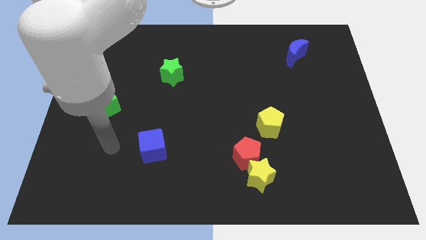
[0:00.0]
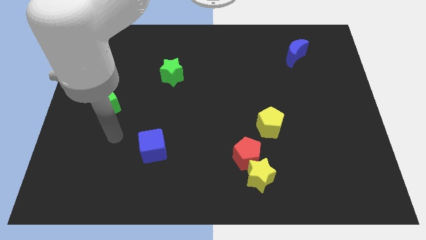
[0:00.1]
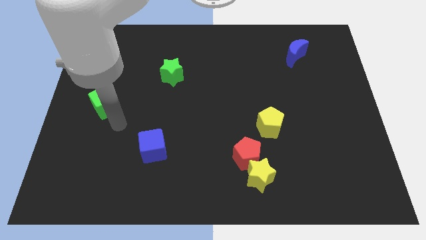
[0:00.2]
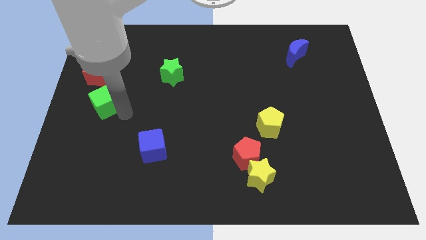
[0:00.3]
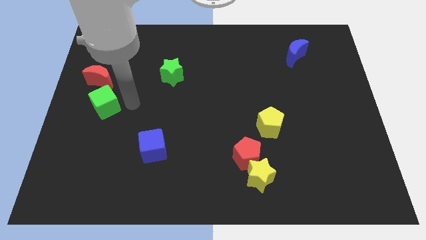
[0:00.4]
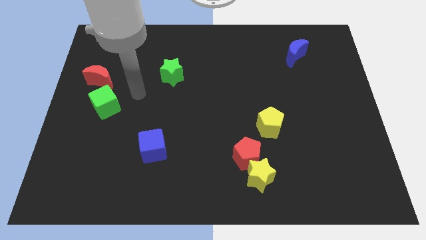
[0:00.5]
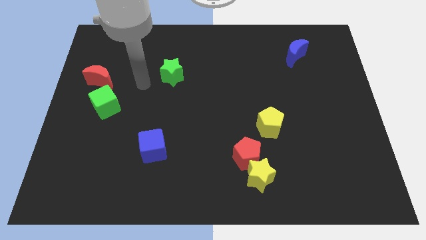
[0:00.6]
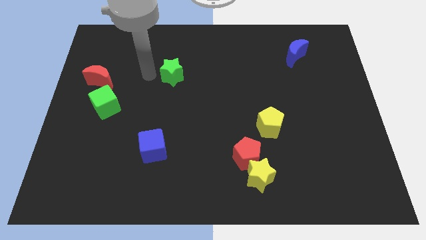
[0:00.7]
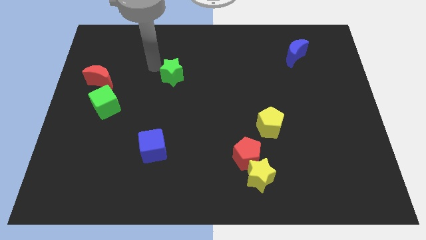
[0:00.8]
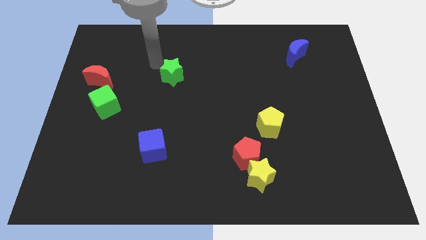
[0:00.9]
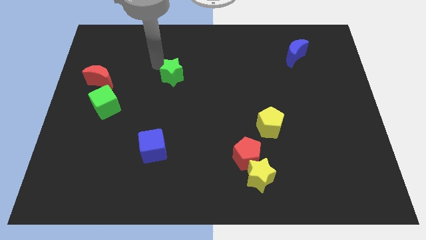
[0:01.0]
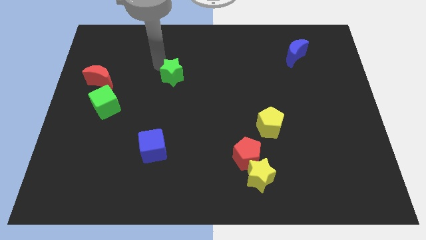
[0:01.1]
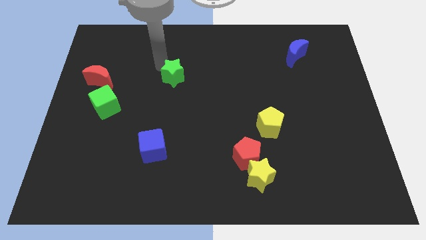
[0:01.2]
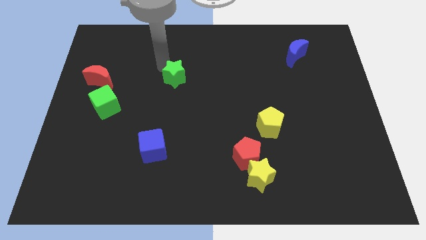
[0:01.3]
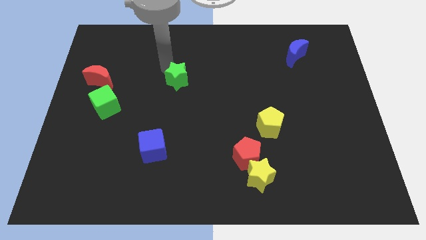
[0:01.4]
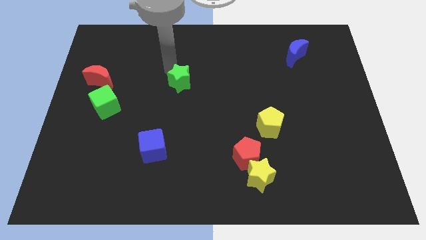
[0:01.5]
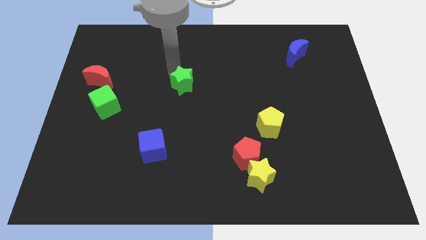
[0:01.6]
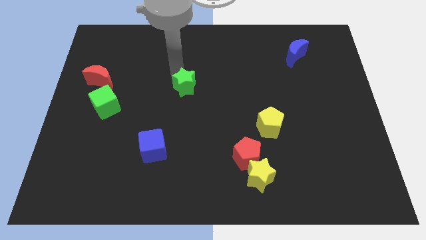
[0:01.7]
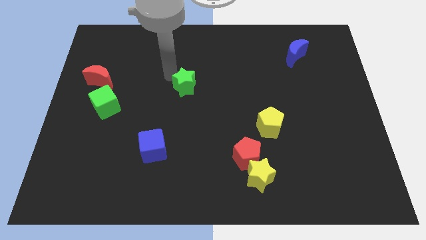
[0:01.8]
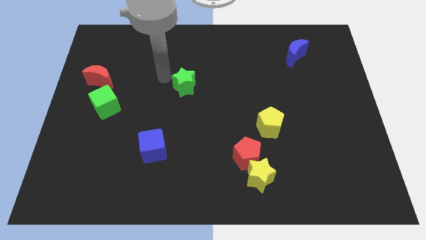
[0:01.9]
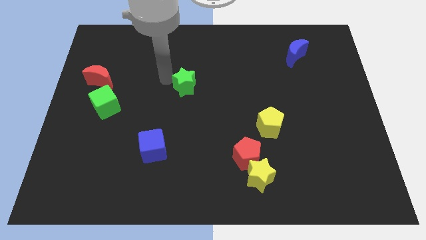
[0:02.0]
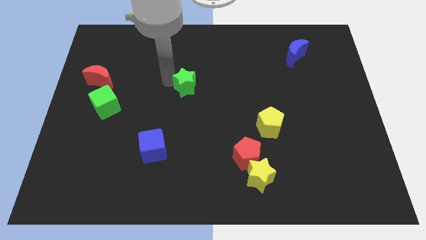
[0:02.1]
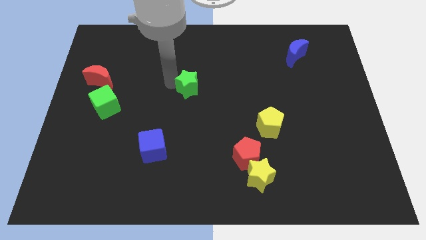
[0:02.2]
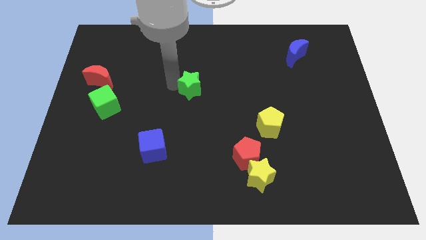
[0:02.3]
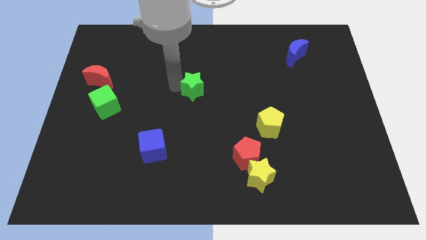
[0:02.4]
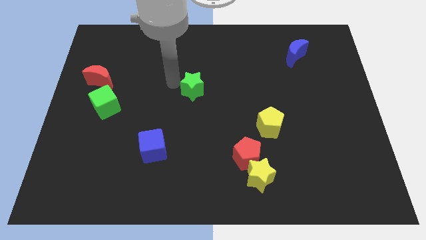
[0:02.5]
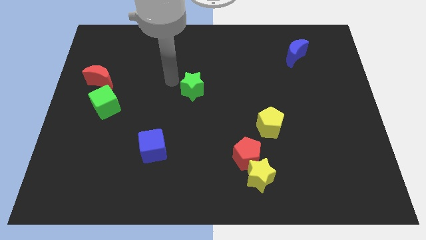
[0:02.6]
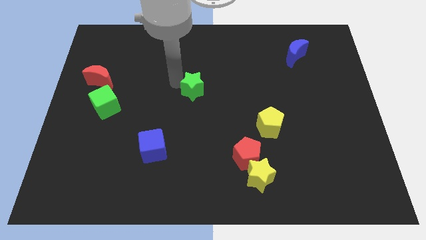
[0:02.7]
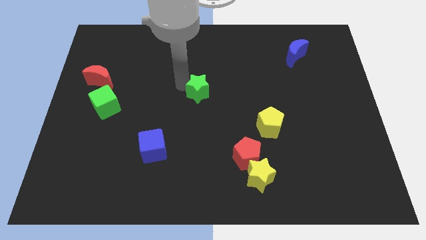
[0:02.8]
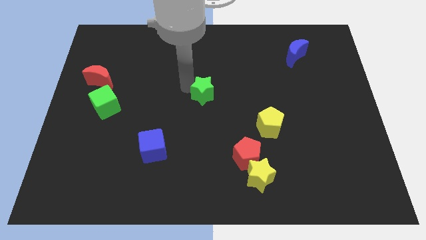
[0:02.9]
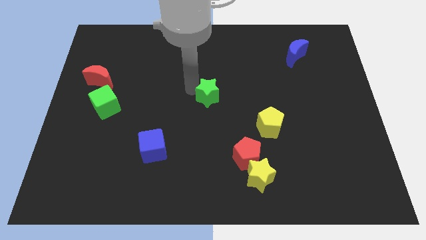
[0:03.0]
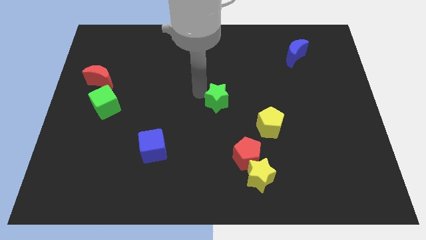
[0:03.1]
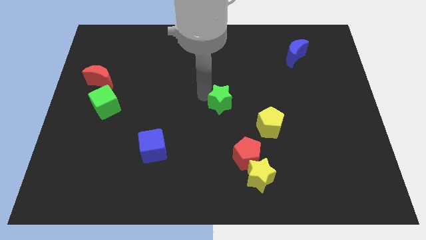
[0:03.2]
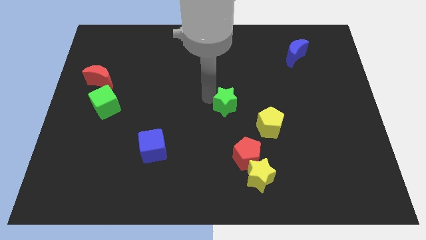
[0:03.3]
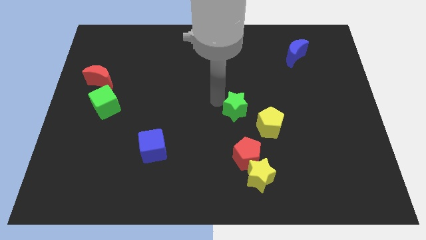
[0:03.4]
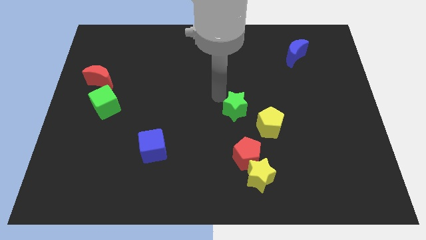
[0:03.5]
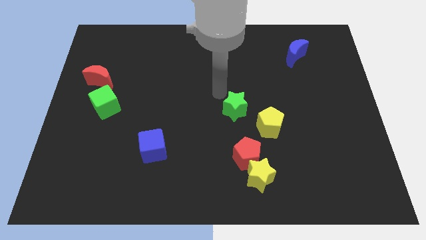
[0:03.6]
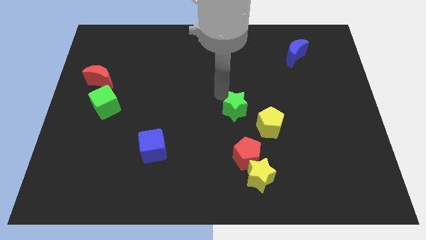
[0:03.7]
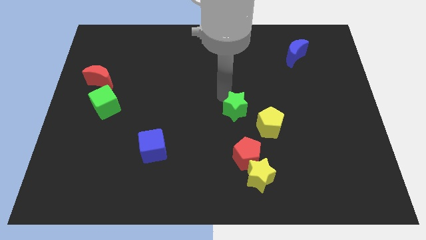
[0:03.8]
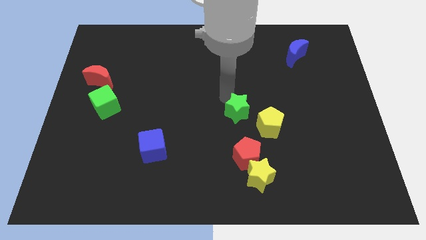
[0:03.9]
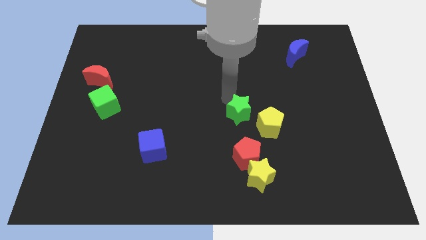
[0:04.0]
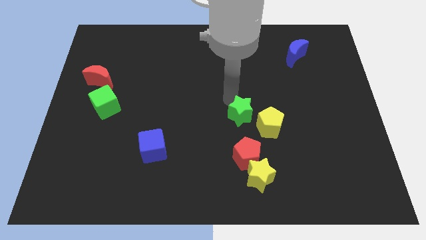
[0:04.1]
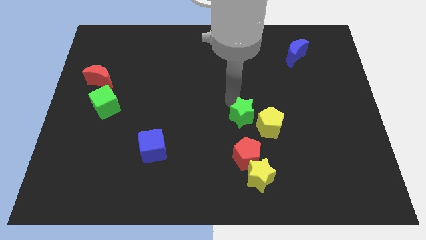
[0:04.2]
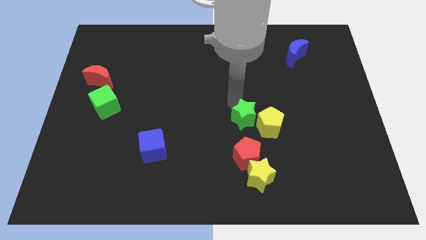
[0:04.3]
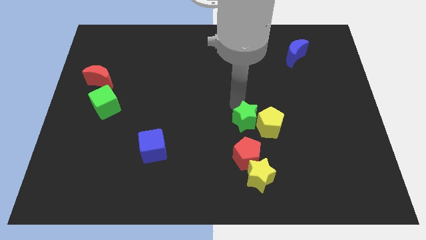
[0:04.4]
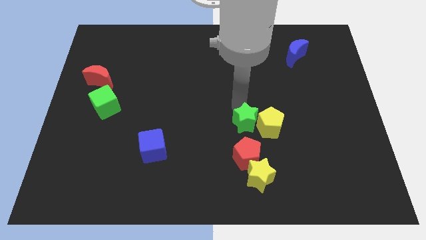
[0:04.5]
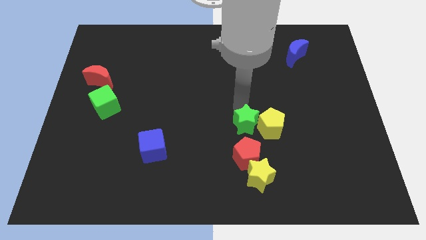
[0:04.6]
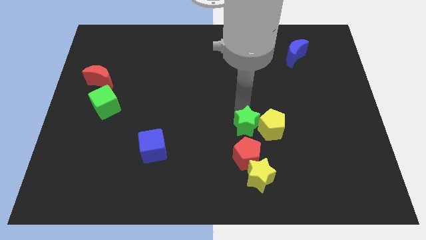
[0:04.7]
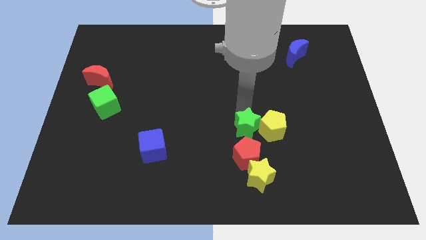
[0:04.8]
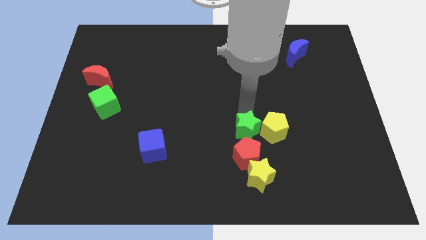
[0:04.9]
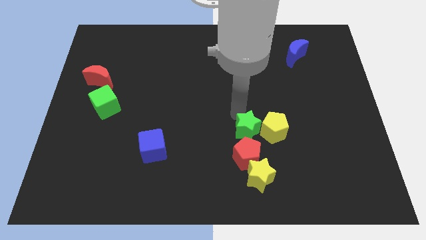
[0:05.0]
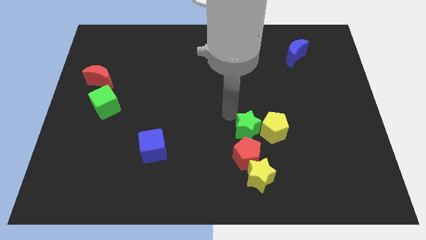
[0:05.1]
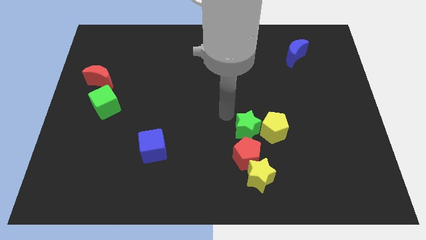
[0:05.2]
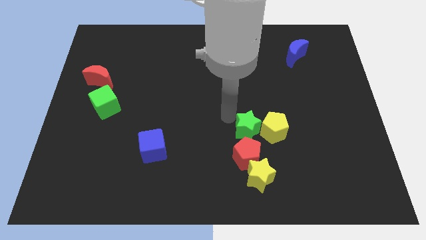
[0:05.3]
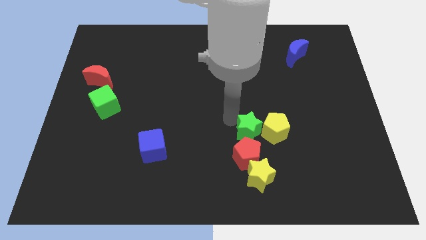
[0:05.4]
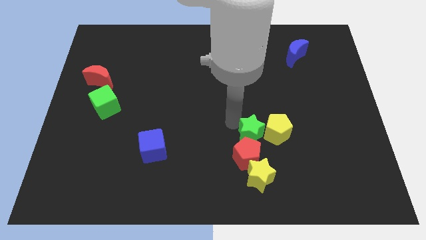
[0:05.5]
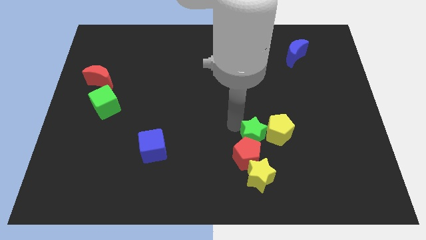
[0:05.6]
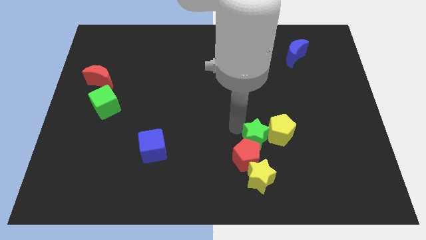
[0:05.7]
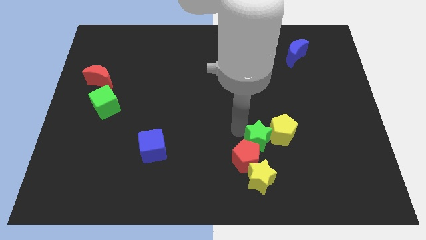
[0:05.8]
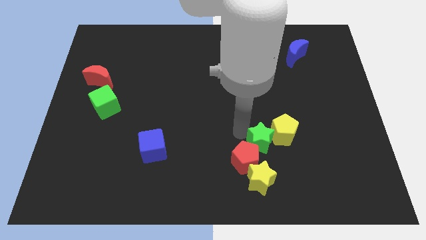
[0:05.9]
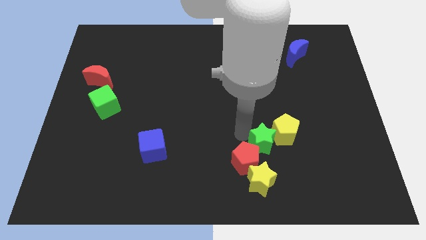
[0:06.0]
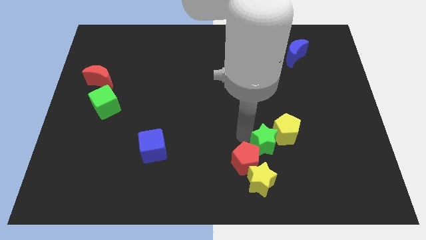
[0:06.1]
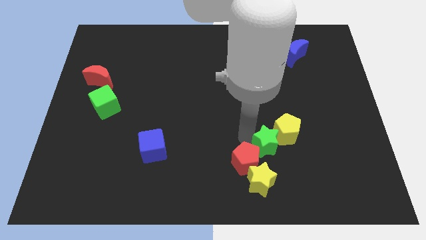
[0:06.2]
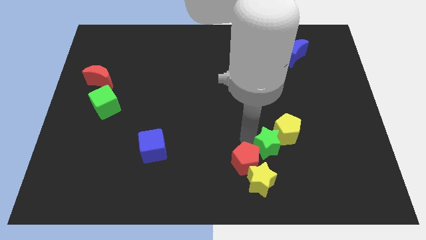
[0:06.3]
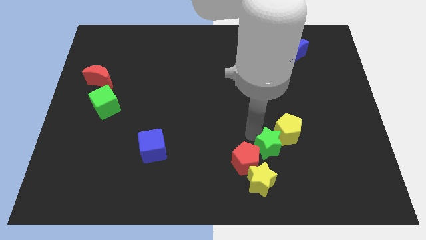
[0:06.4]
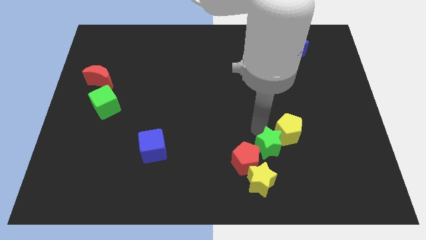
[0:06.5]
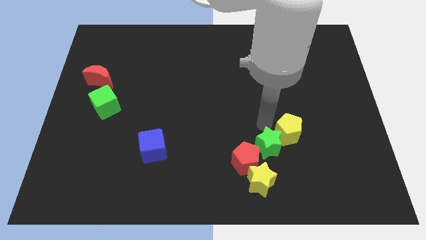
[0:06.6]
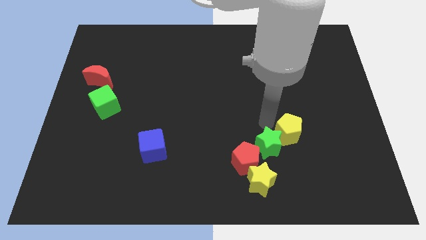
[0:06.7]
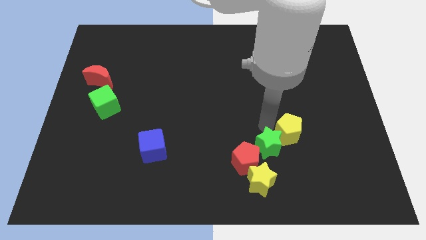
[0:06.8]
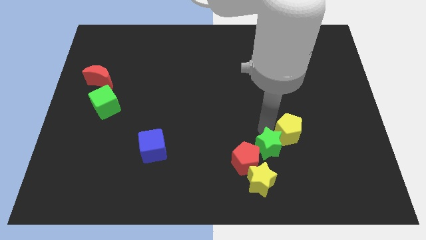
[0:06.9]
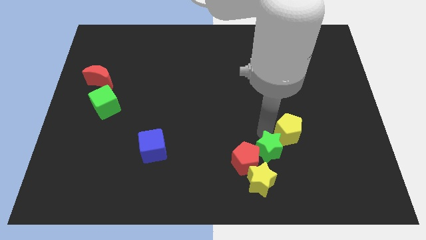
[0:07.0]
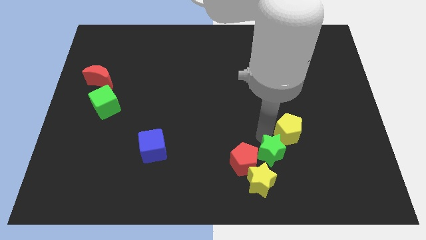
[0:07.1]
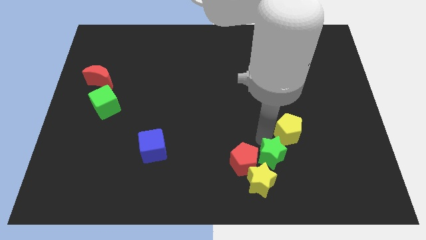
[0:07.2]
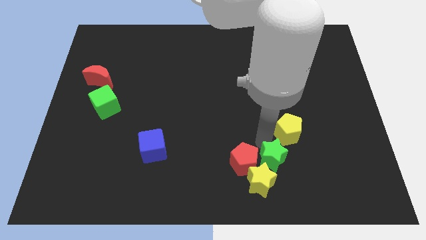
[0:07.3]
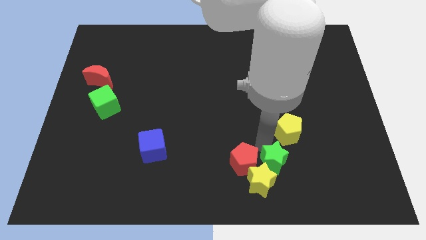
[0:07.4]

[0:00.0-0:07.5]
slide the green star to the bottom right side of the red pentagon
